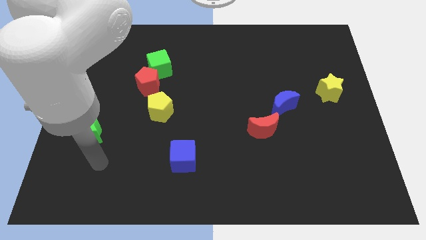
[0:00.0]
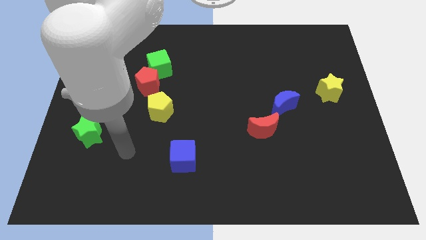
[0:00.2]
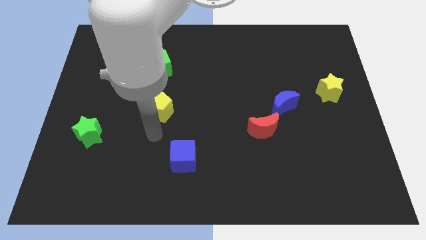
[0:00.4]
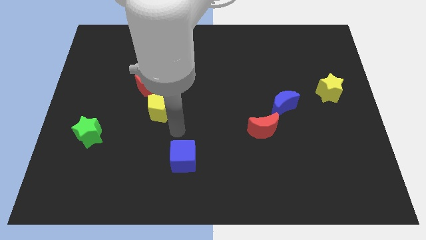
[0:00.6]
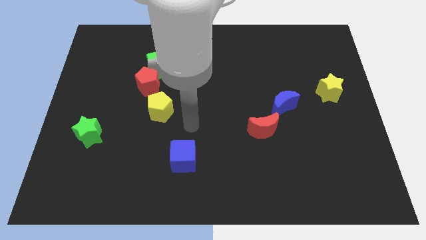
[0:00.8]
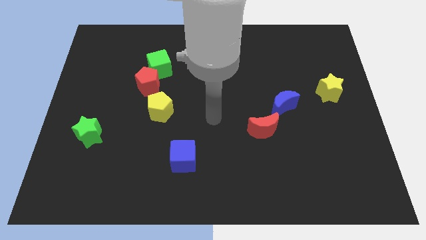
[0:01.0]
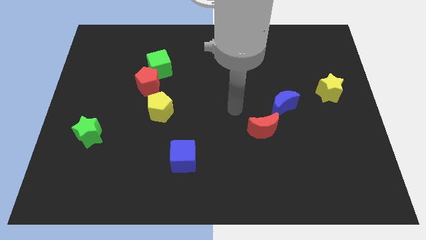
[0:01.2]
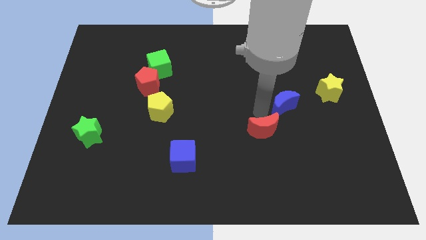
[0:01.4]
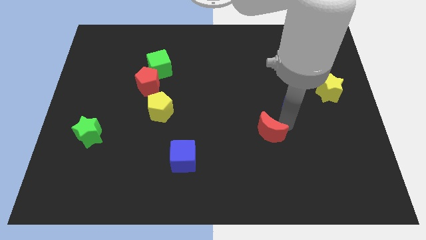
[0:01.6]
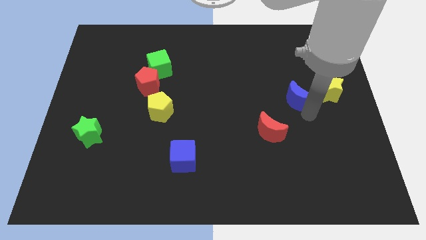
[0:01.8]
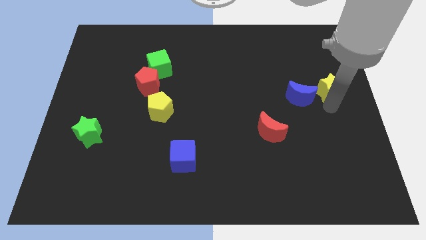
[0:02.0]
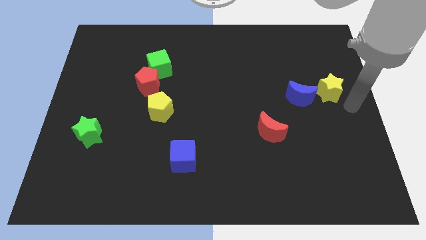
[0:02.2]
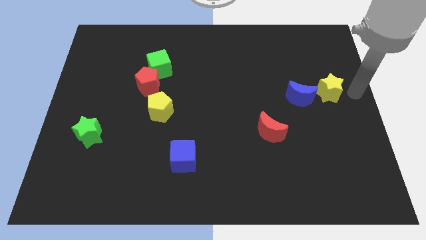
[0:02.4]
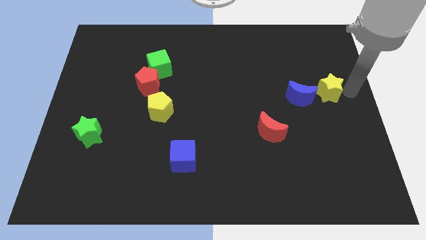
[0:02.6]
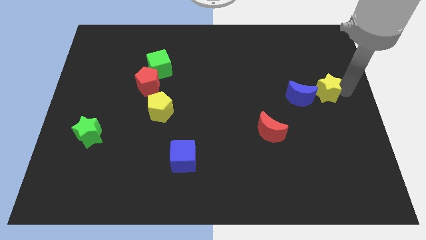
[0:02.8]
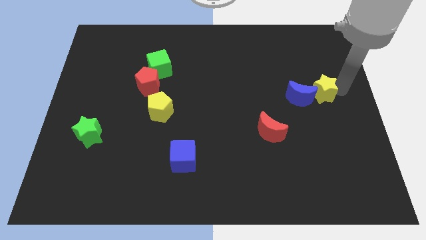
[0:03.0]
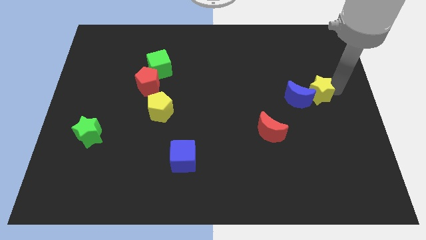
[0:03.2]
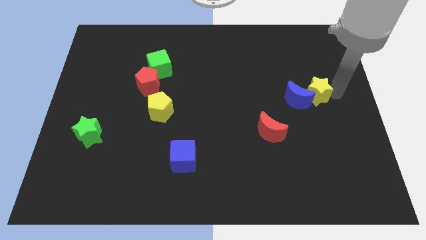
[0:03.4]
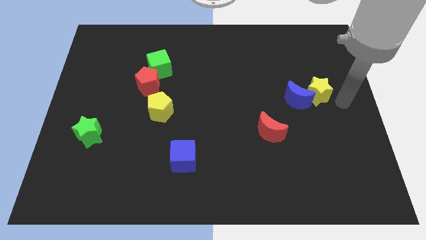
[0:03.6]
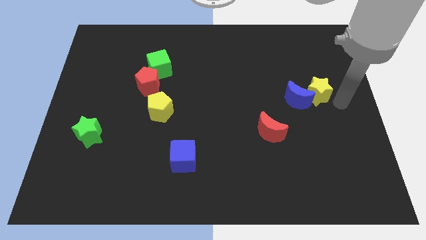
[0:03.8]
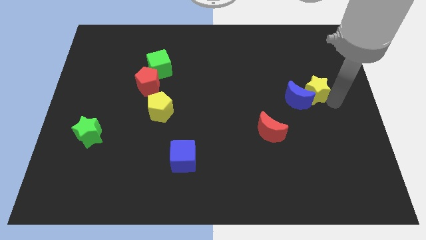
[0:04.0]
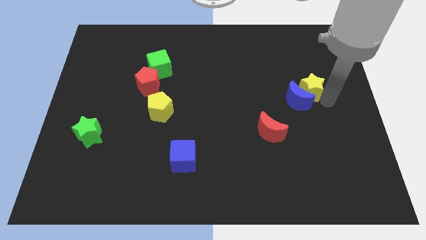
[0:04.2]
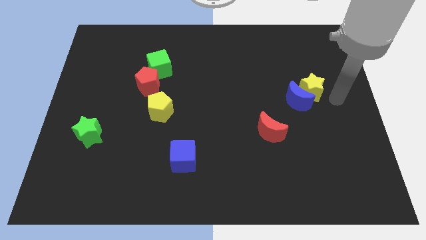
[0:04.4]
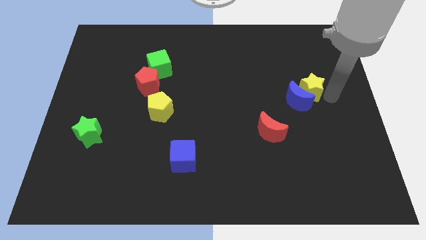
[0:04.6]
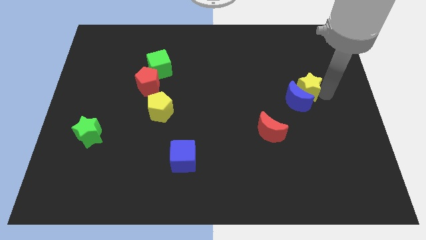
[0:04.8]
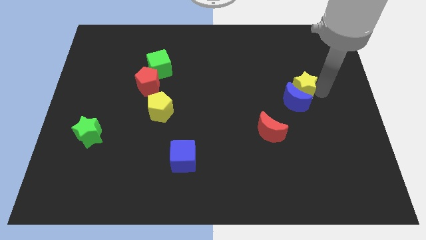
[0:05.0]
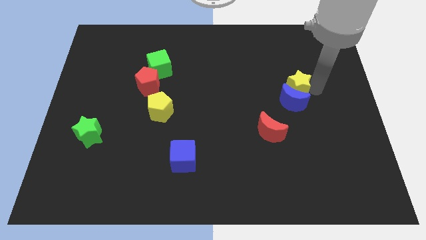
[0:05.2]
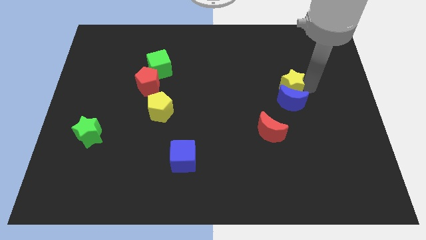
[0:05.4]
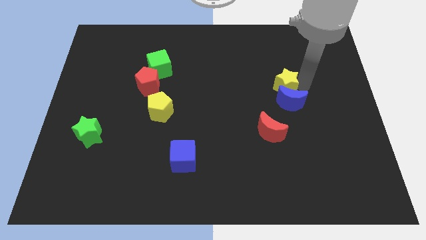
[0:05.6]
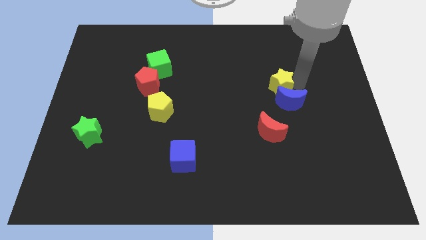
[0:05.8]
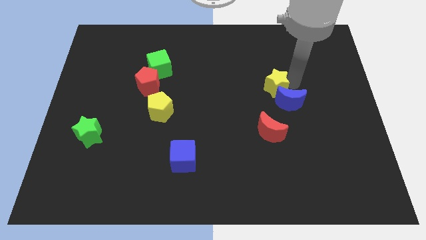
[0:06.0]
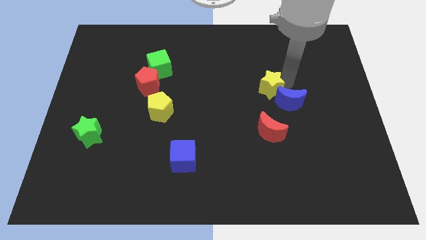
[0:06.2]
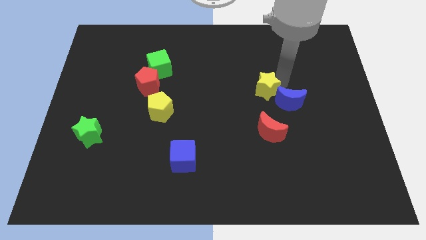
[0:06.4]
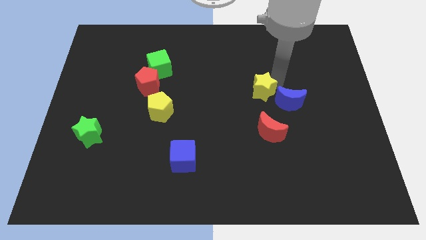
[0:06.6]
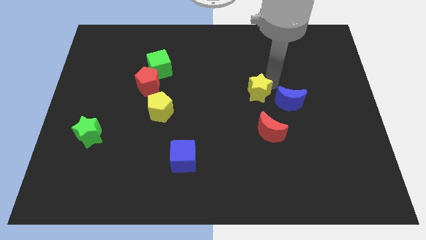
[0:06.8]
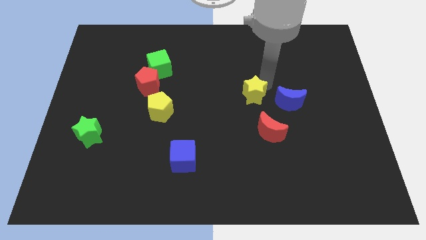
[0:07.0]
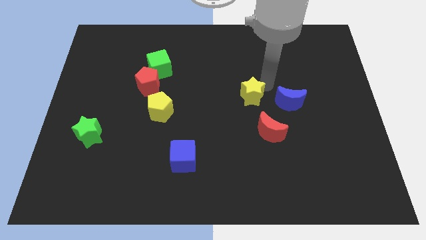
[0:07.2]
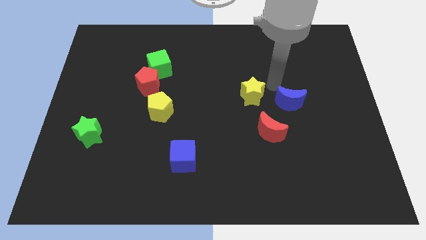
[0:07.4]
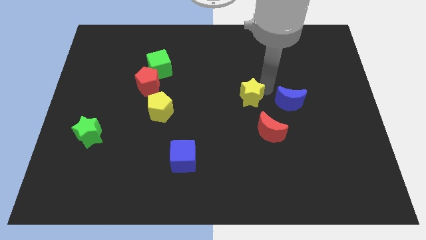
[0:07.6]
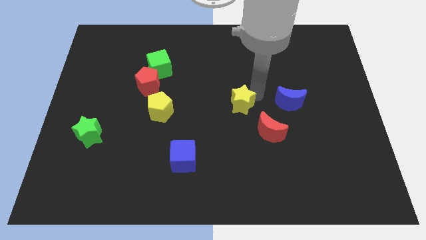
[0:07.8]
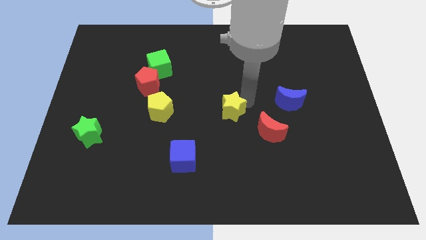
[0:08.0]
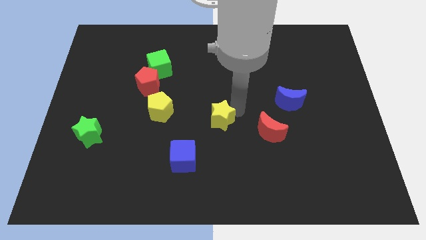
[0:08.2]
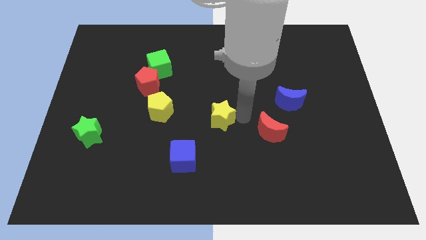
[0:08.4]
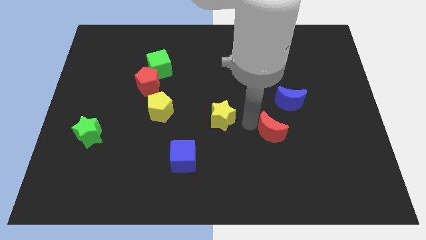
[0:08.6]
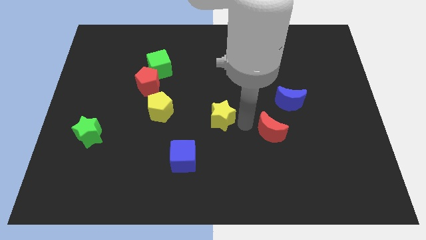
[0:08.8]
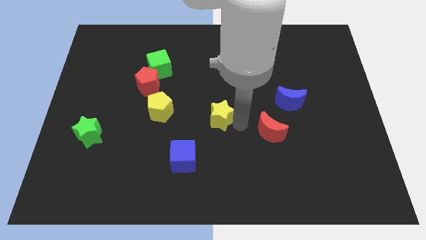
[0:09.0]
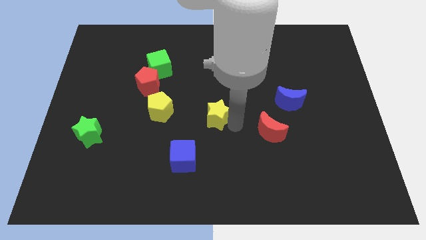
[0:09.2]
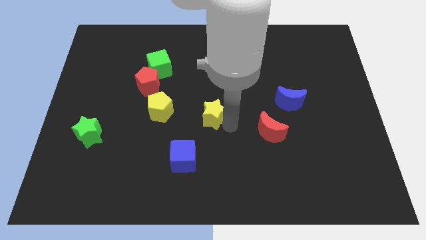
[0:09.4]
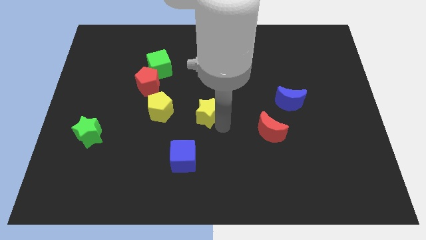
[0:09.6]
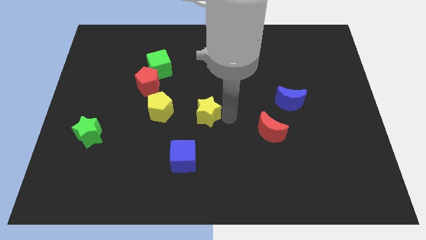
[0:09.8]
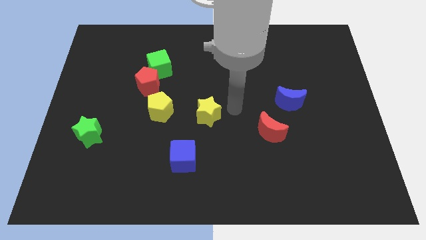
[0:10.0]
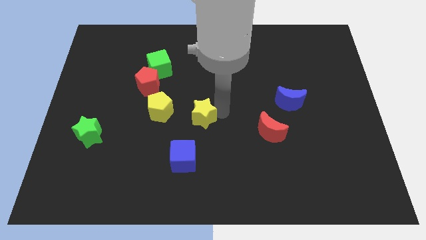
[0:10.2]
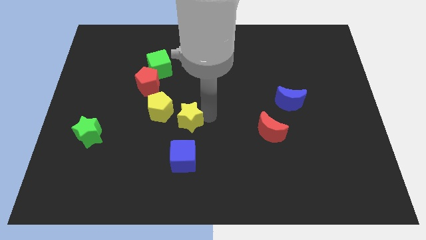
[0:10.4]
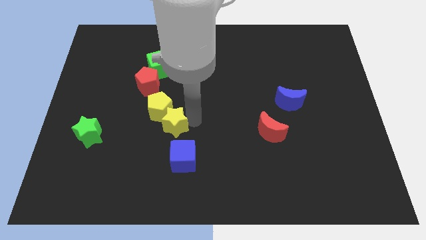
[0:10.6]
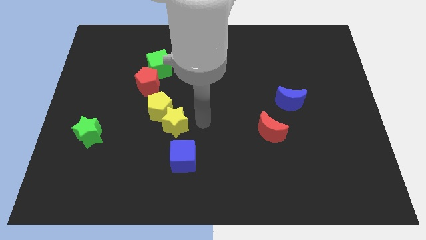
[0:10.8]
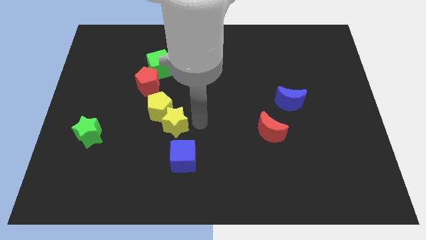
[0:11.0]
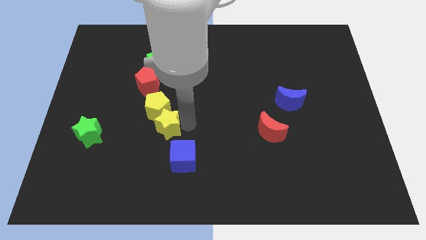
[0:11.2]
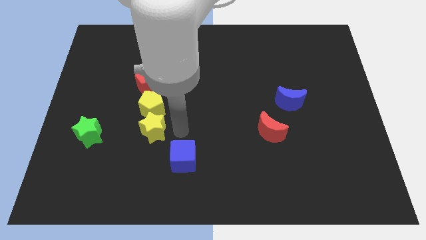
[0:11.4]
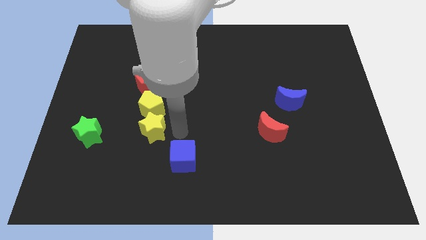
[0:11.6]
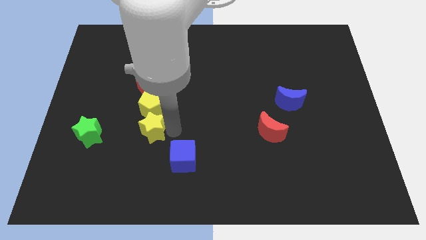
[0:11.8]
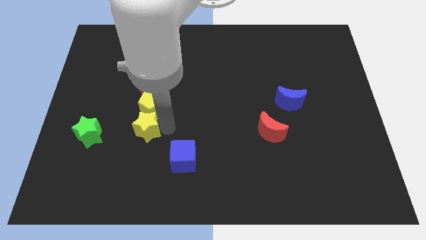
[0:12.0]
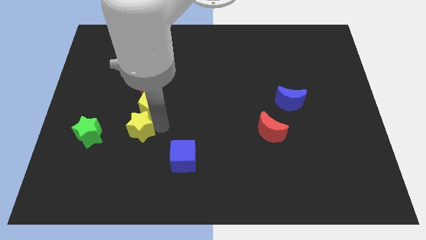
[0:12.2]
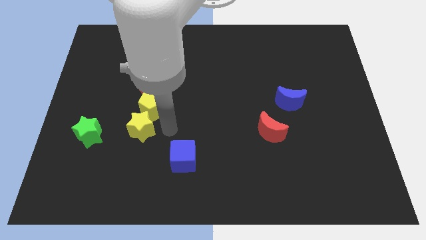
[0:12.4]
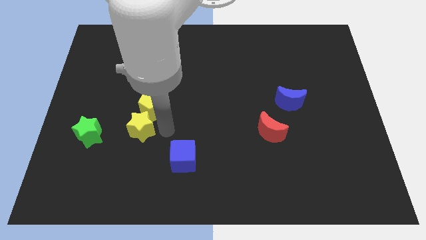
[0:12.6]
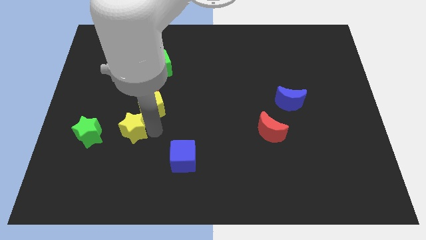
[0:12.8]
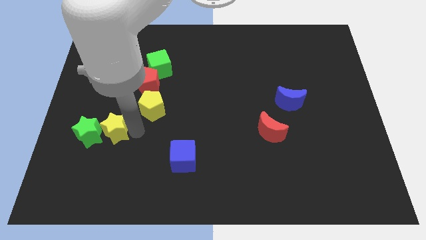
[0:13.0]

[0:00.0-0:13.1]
push the yellow star next to the green star

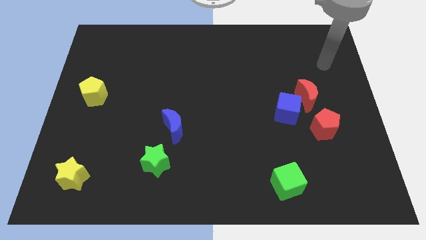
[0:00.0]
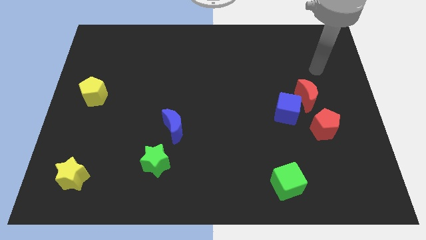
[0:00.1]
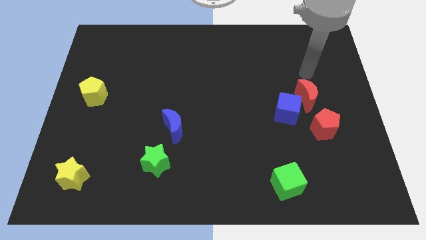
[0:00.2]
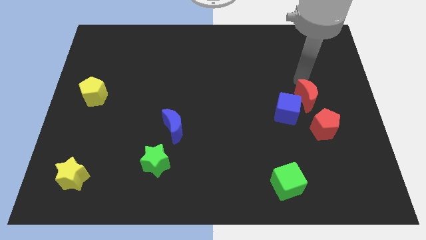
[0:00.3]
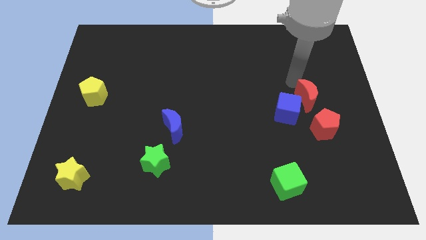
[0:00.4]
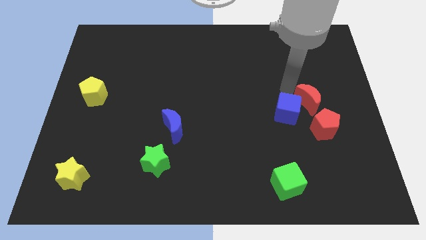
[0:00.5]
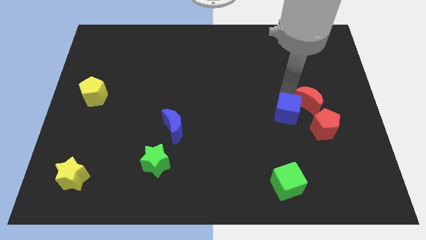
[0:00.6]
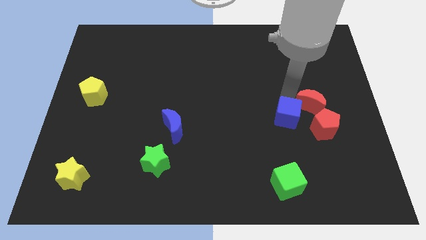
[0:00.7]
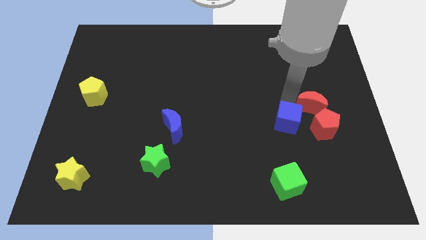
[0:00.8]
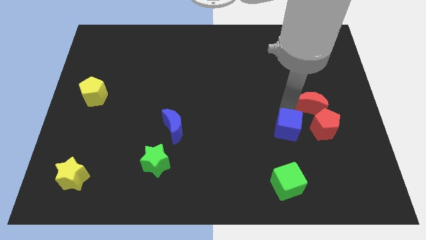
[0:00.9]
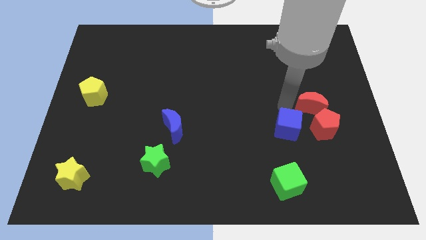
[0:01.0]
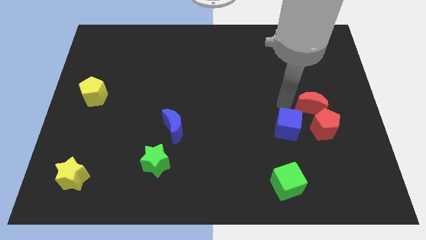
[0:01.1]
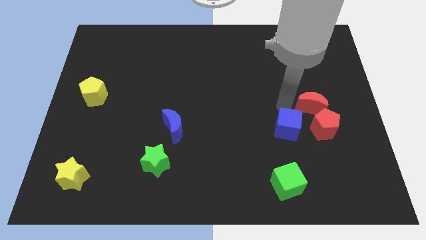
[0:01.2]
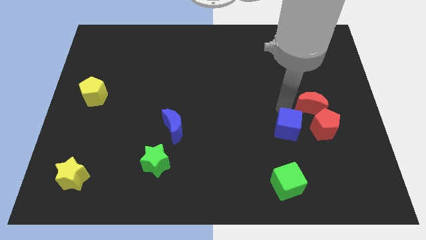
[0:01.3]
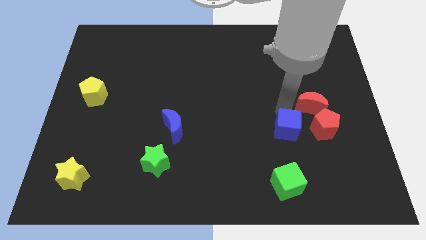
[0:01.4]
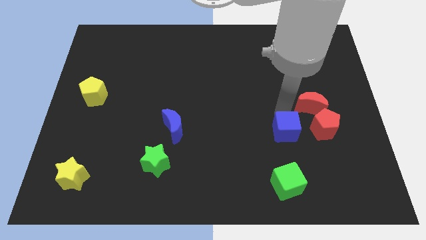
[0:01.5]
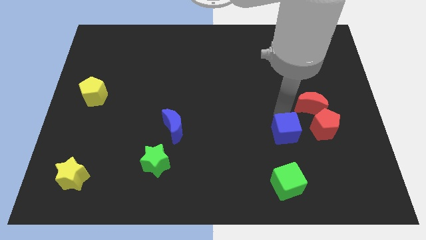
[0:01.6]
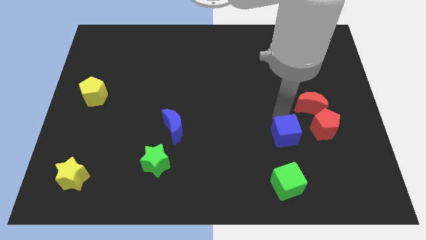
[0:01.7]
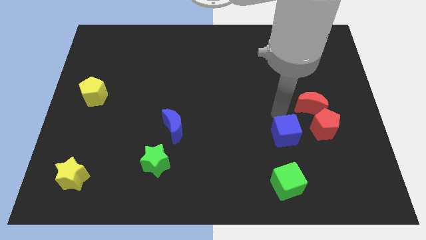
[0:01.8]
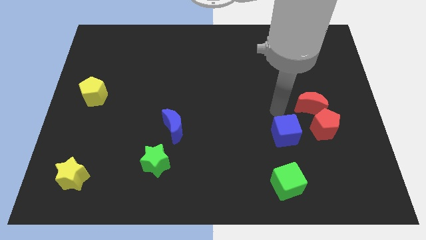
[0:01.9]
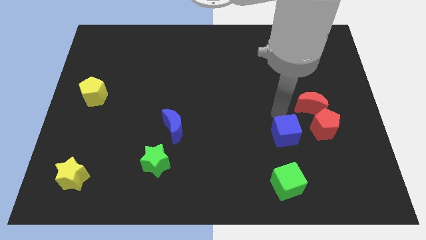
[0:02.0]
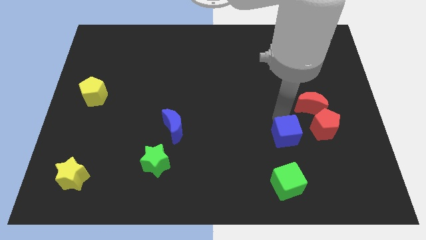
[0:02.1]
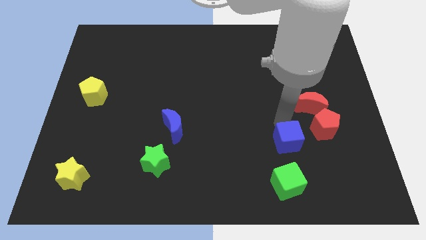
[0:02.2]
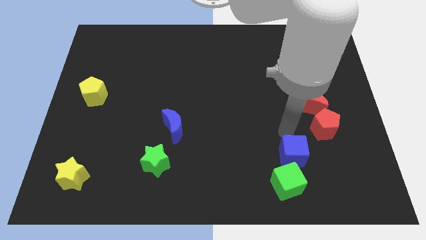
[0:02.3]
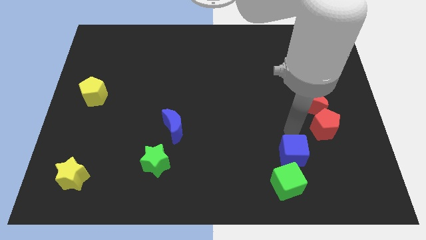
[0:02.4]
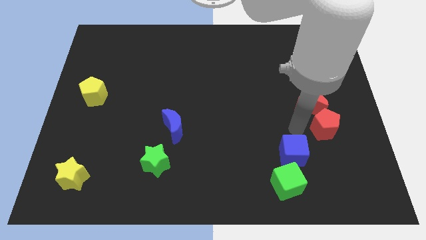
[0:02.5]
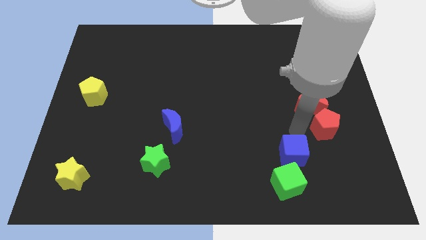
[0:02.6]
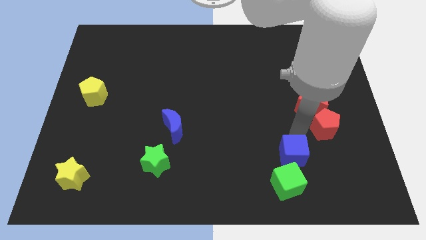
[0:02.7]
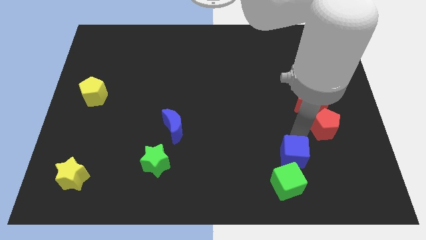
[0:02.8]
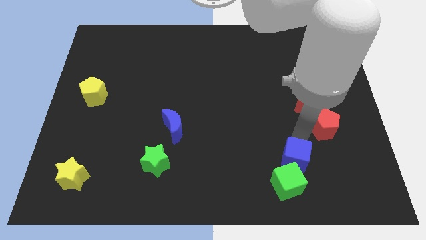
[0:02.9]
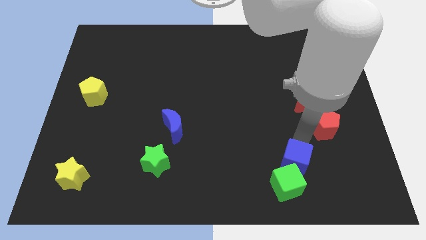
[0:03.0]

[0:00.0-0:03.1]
push the blue cube towards the green cube
